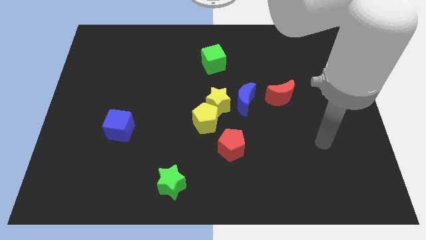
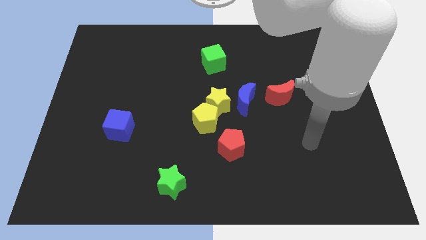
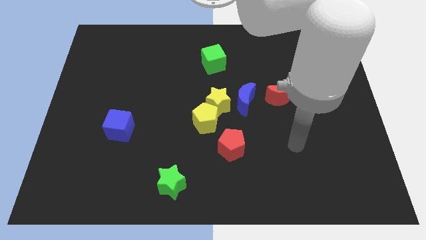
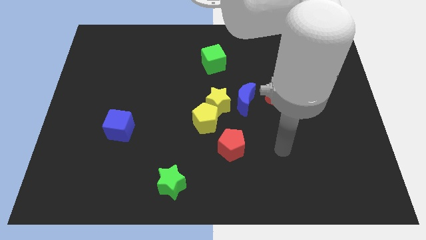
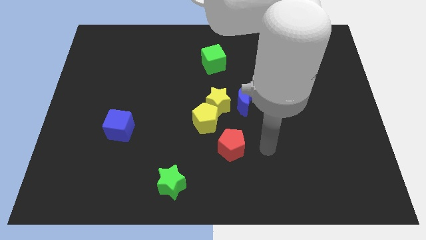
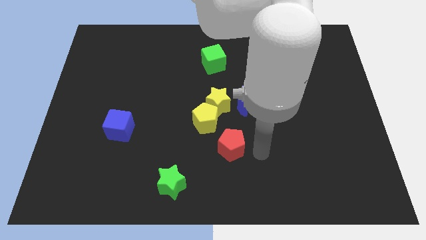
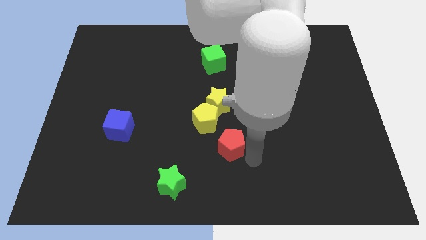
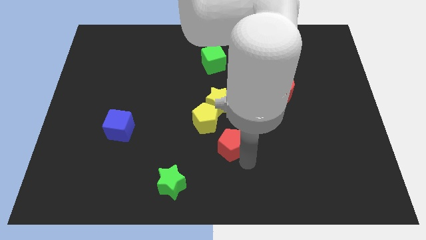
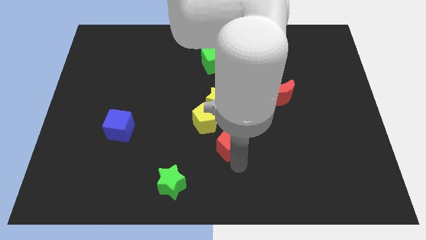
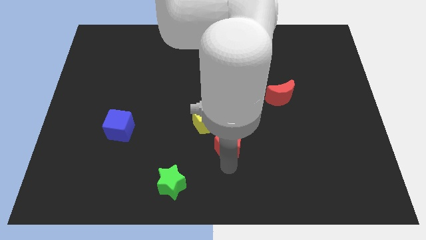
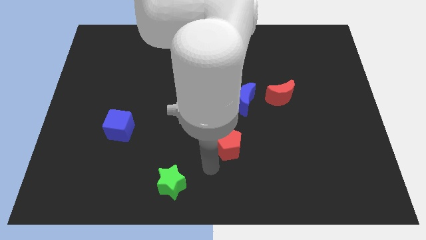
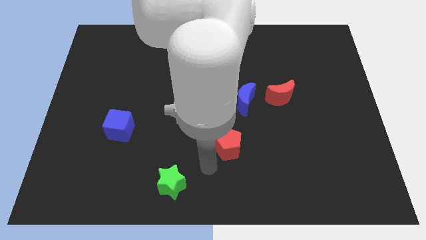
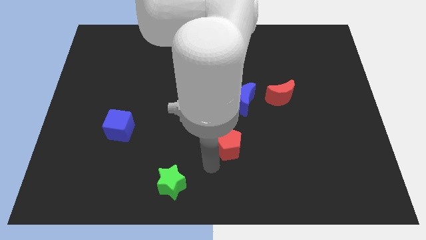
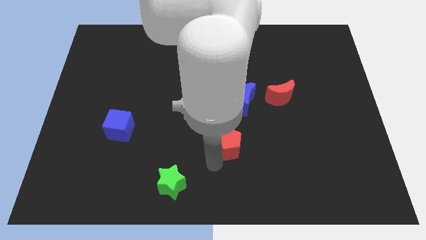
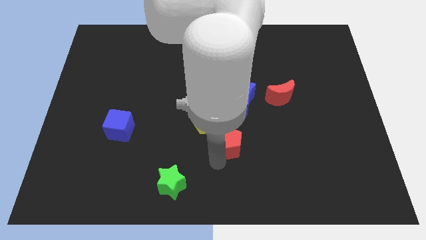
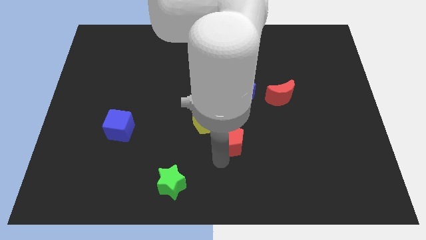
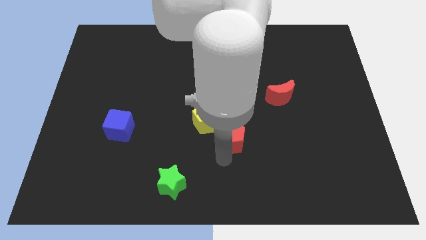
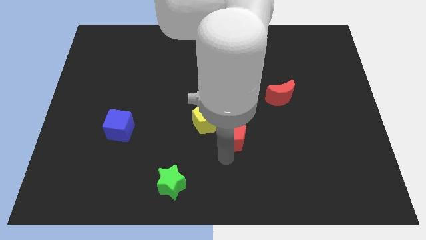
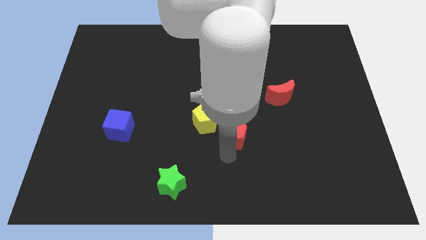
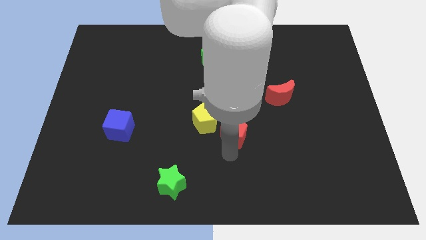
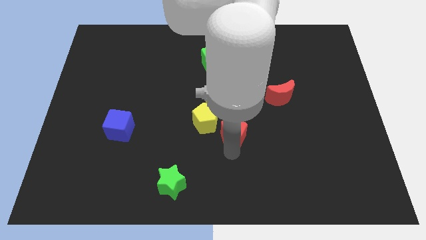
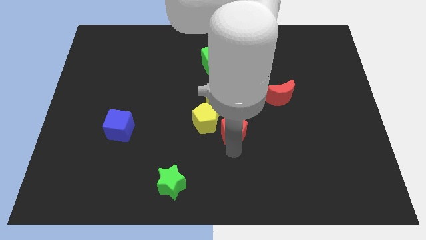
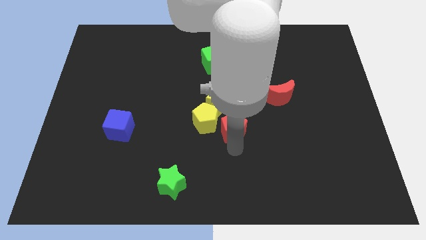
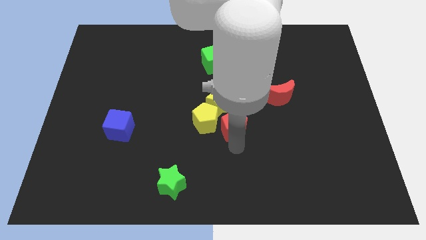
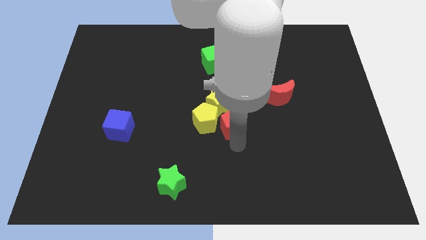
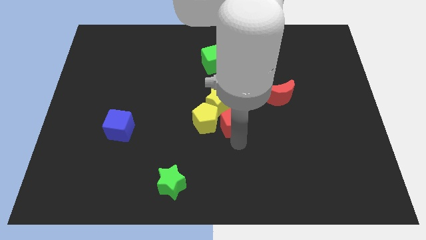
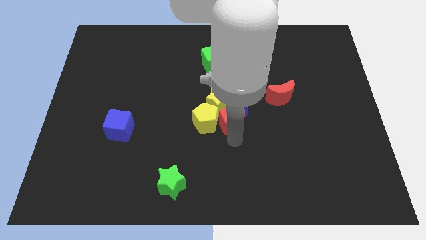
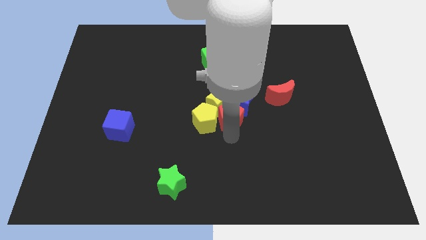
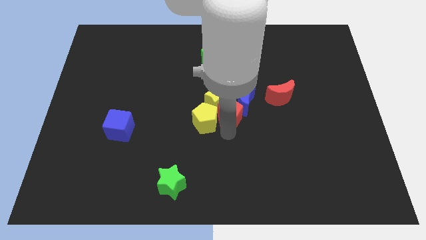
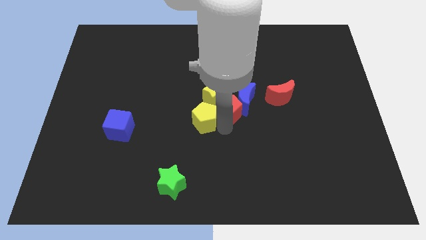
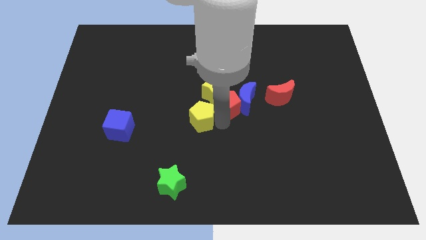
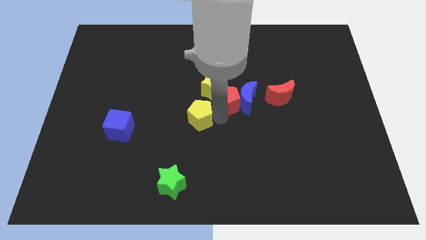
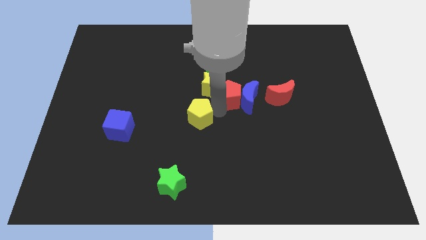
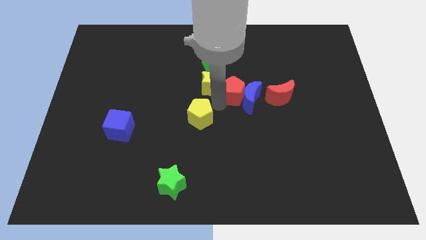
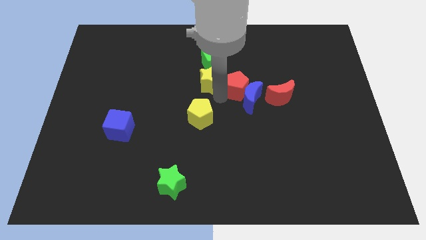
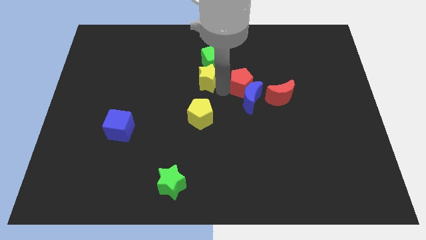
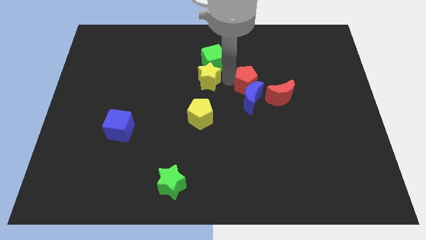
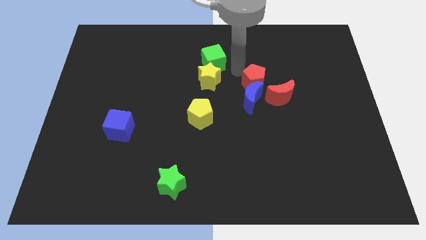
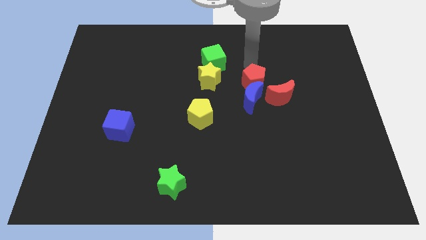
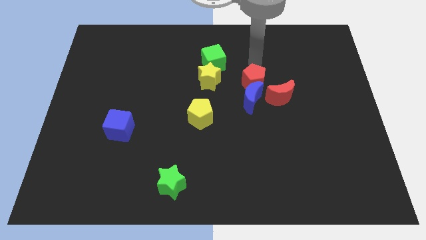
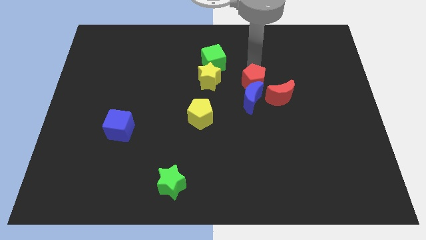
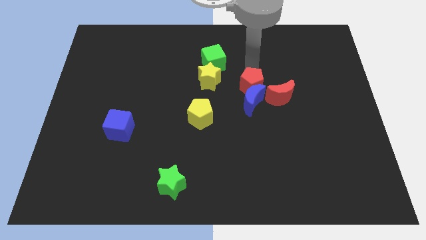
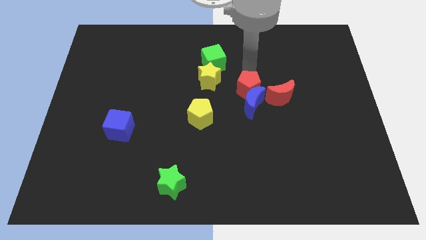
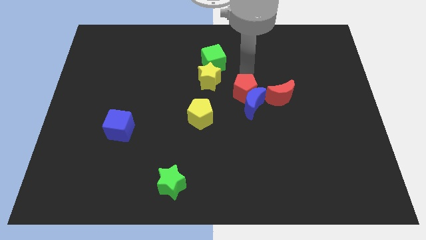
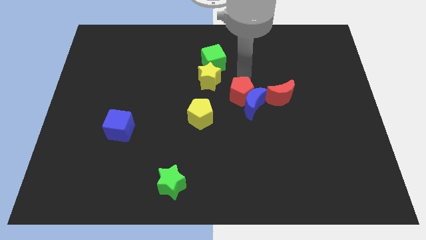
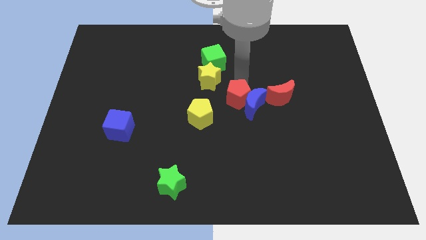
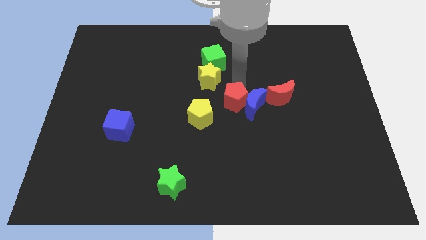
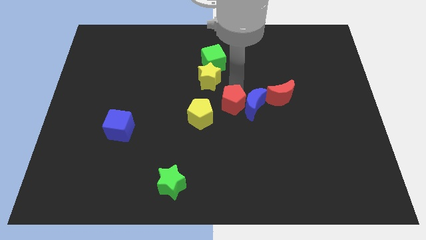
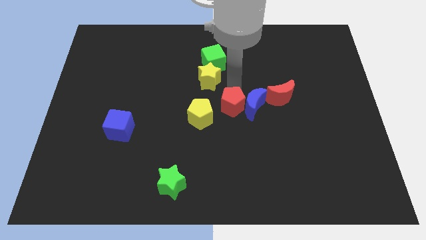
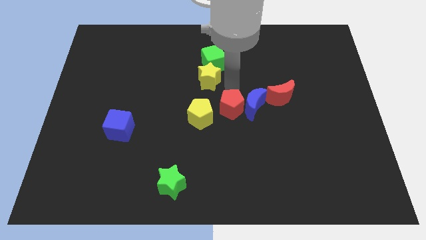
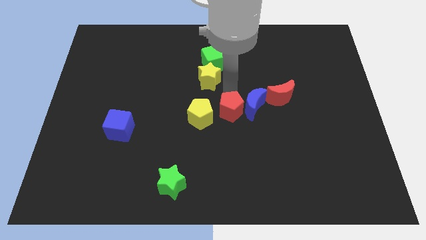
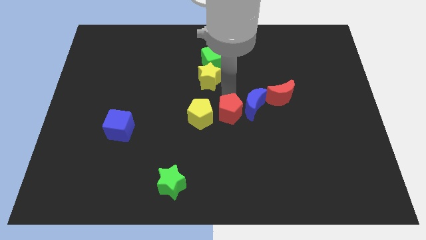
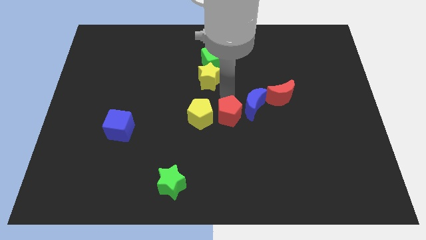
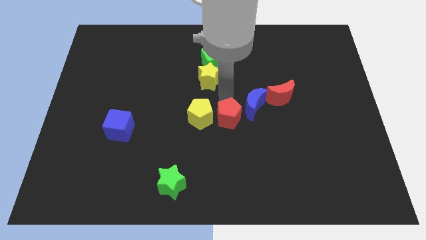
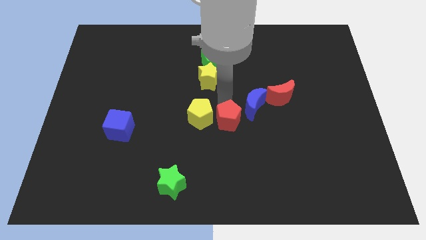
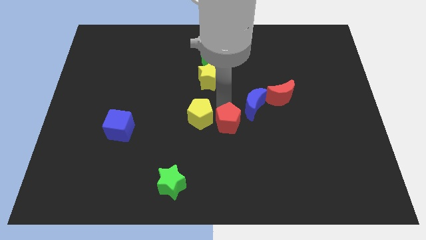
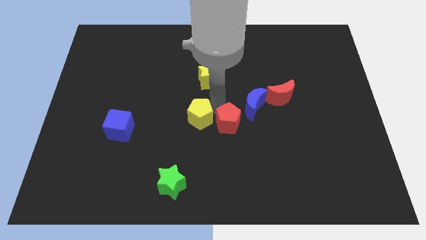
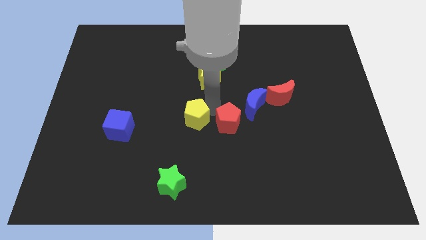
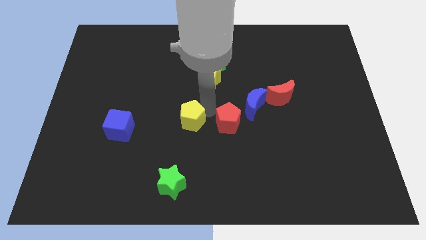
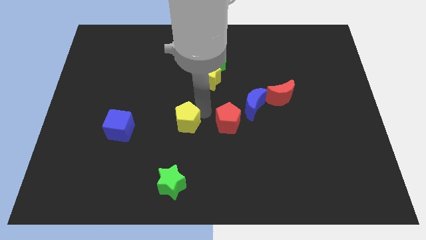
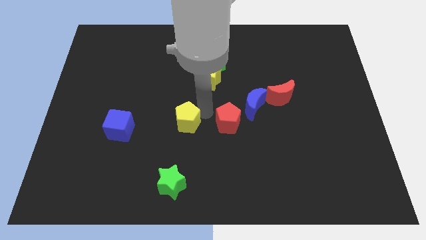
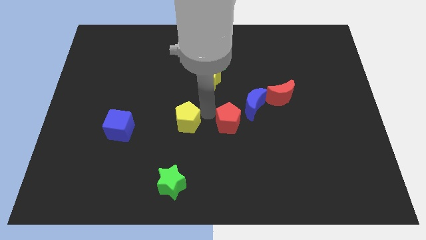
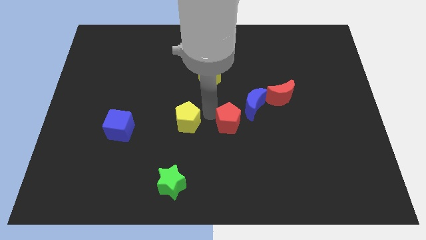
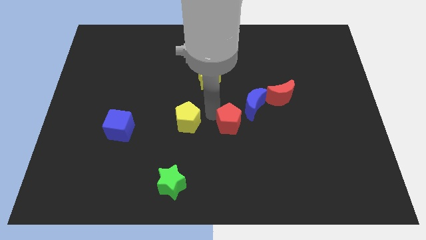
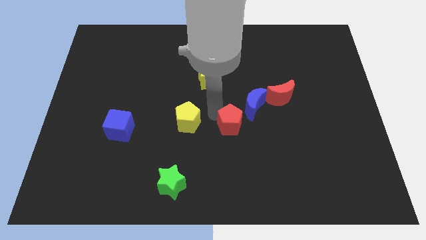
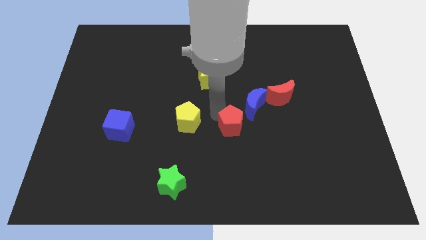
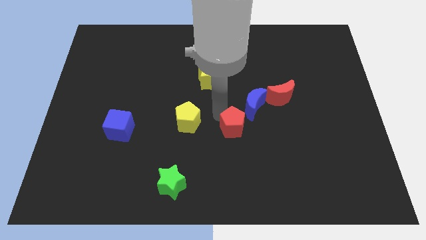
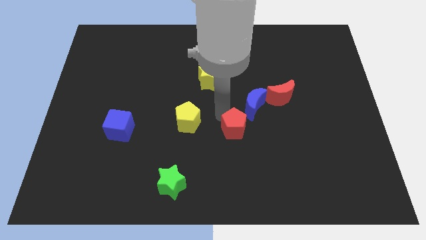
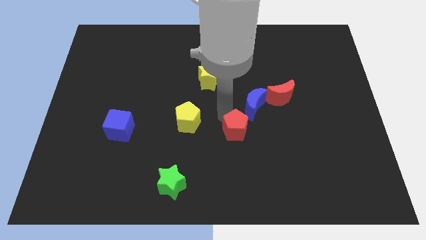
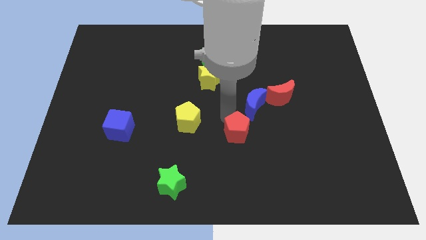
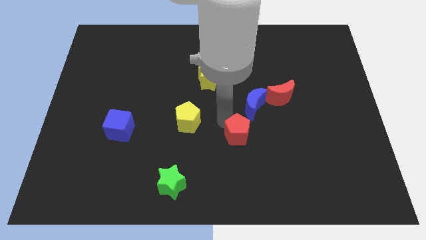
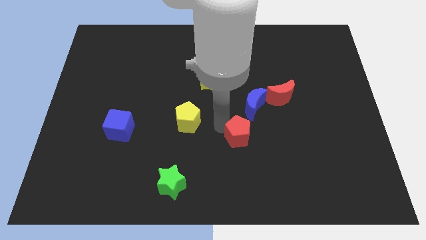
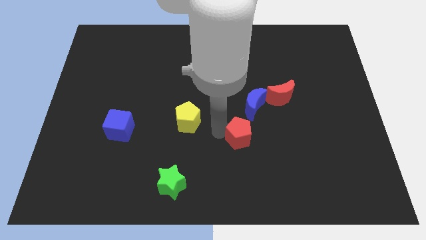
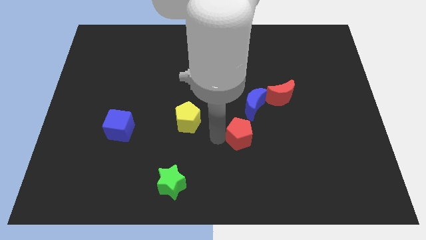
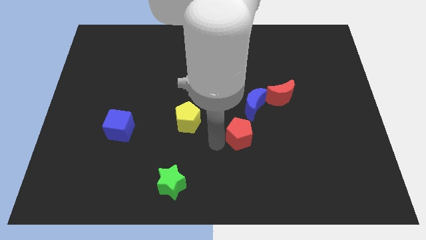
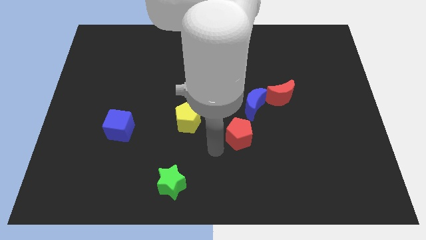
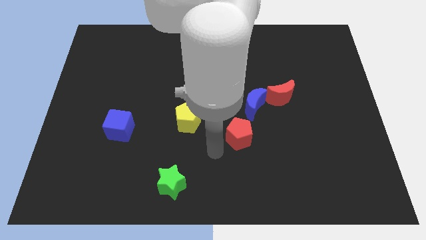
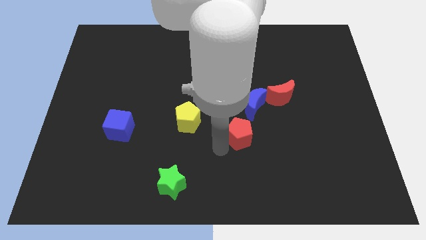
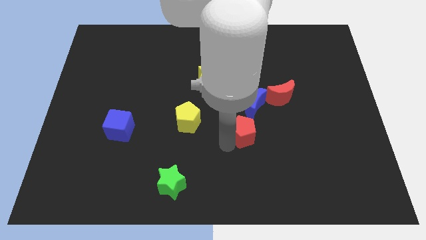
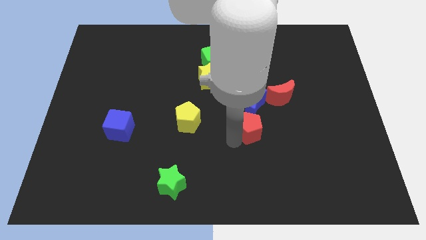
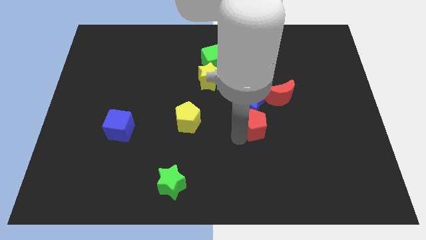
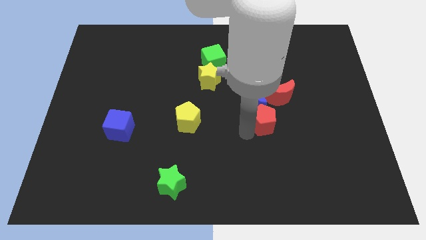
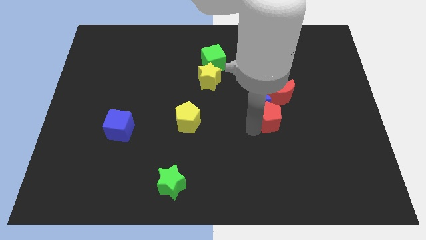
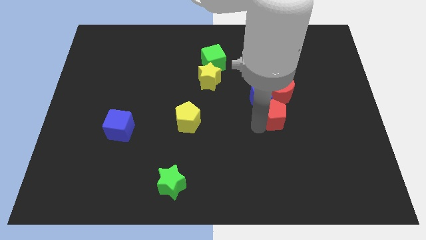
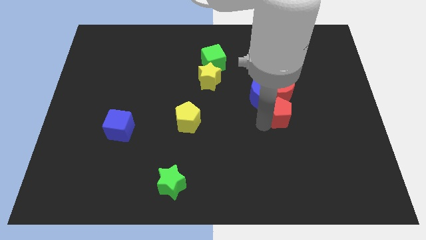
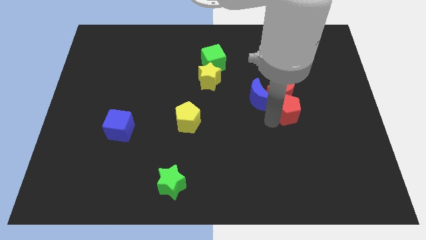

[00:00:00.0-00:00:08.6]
move the red pentagon just right of the blue moon
